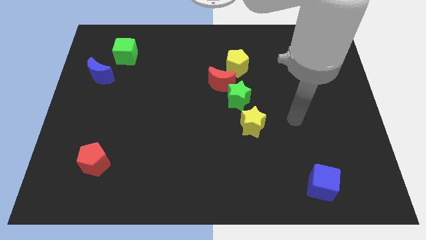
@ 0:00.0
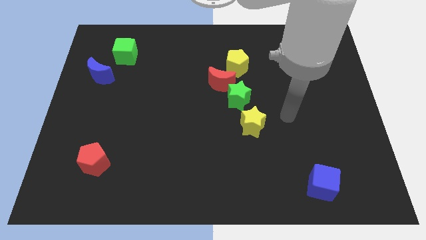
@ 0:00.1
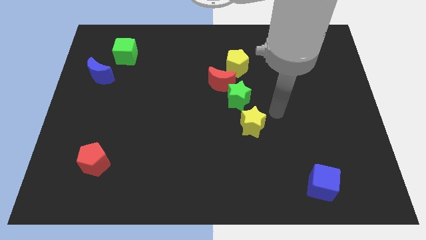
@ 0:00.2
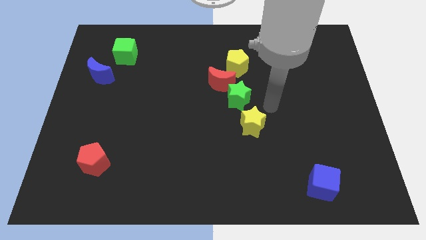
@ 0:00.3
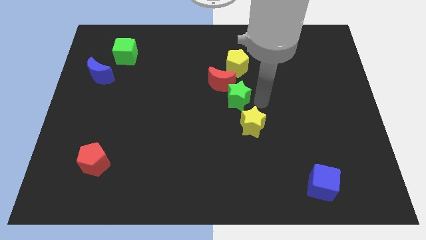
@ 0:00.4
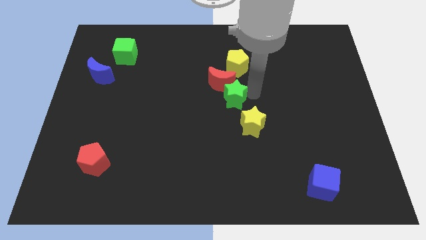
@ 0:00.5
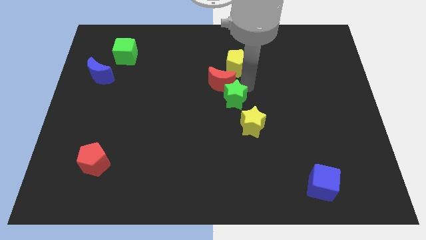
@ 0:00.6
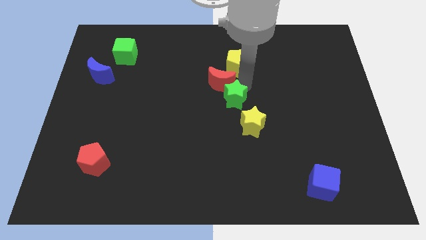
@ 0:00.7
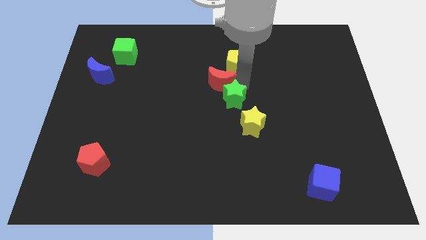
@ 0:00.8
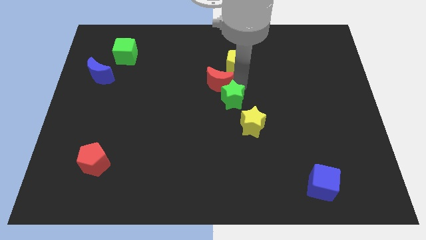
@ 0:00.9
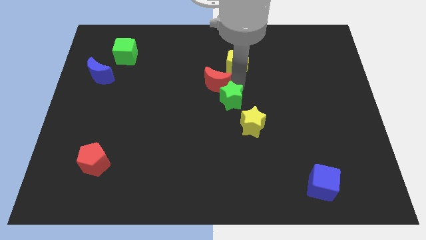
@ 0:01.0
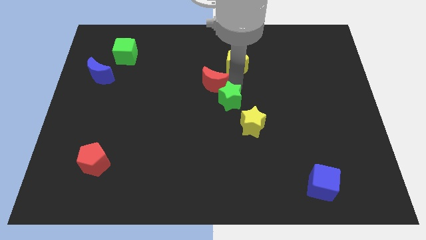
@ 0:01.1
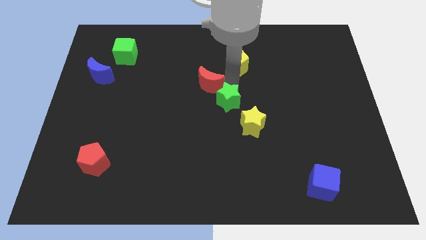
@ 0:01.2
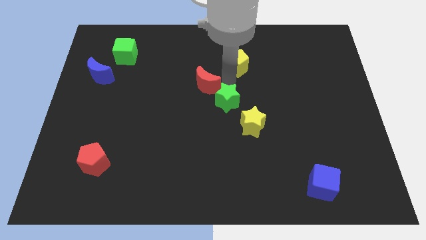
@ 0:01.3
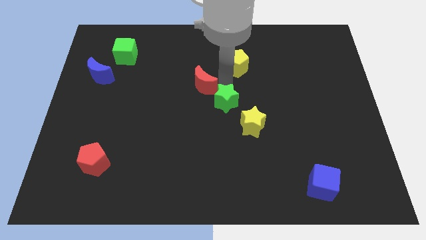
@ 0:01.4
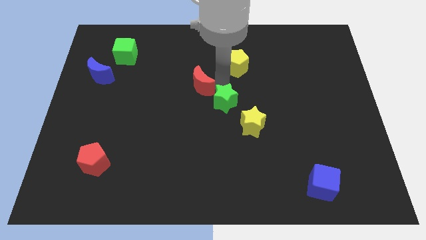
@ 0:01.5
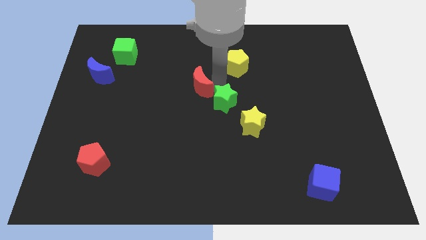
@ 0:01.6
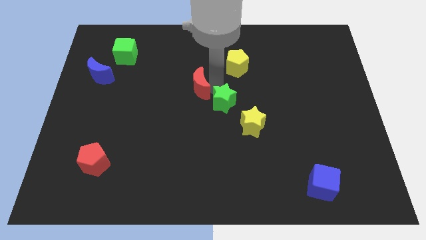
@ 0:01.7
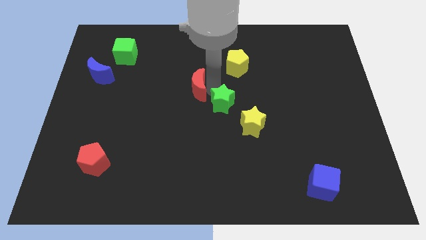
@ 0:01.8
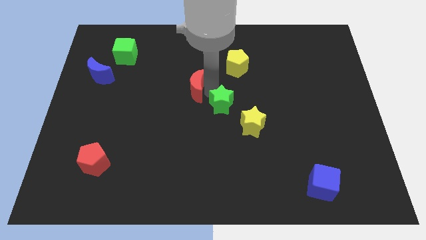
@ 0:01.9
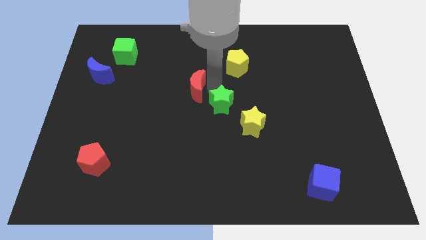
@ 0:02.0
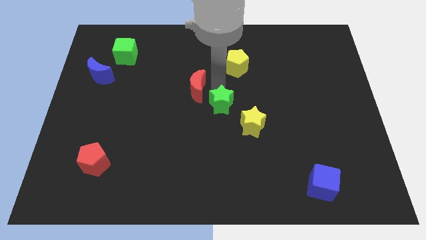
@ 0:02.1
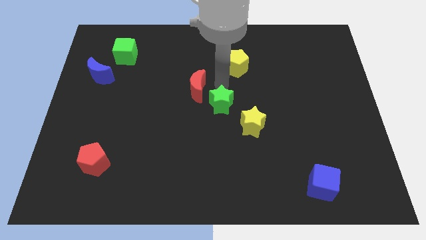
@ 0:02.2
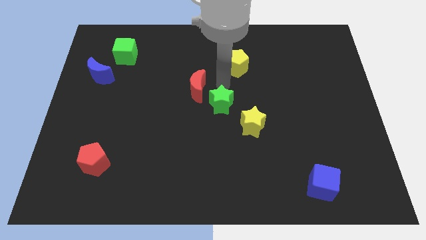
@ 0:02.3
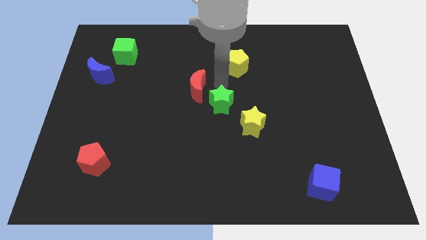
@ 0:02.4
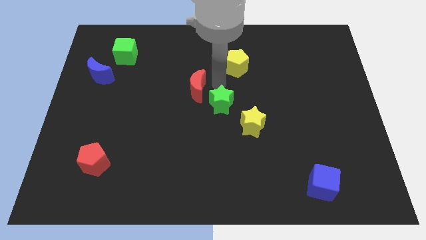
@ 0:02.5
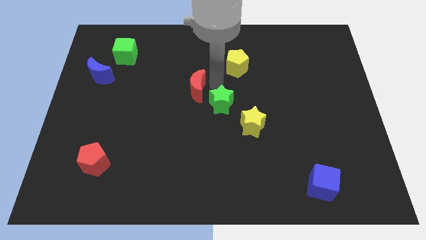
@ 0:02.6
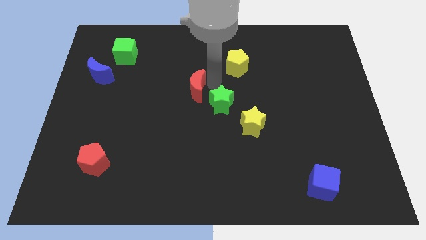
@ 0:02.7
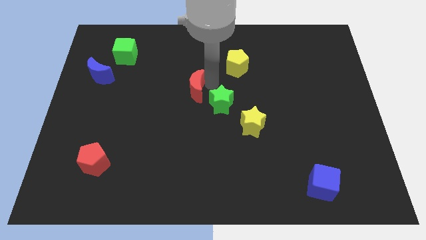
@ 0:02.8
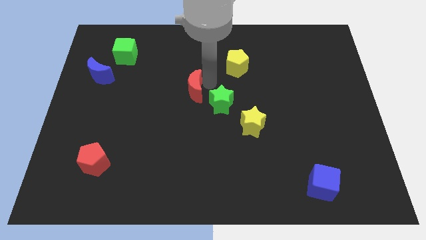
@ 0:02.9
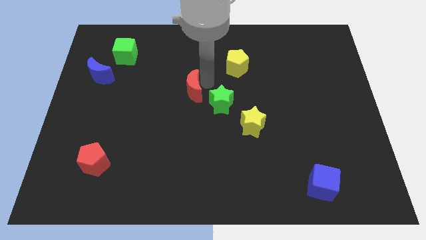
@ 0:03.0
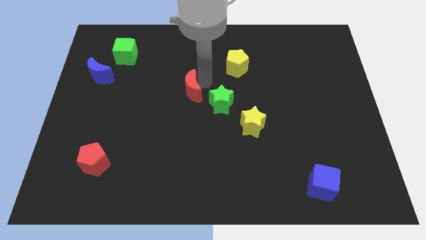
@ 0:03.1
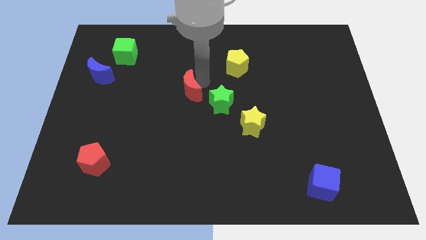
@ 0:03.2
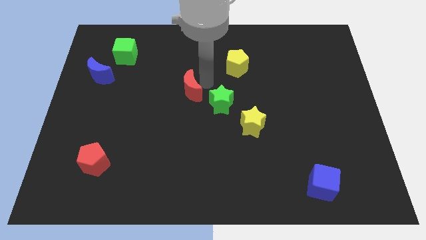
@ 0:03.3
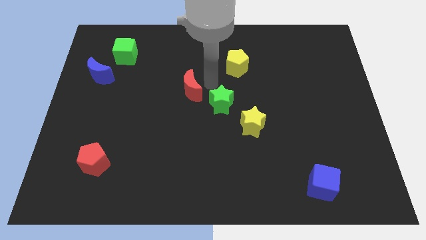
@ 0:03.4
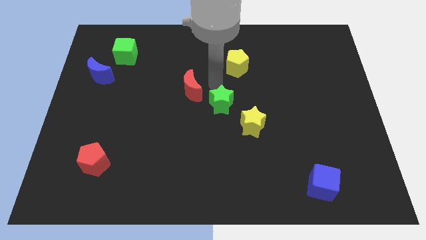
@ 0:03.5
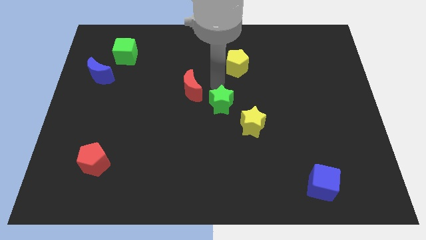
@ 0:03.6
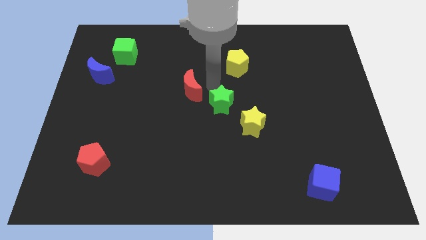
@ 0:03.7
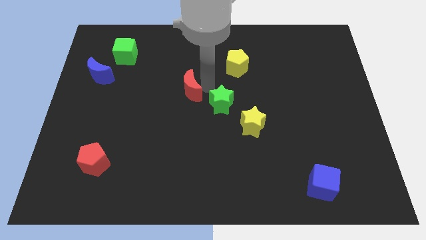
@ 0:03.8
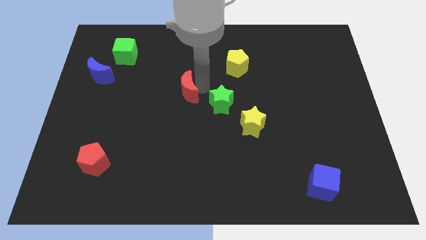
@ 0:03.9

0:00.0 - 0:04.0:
move the red moon away from the green star and yellow pentagon

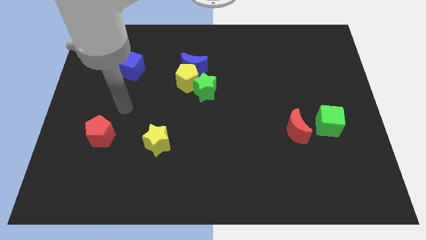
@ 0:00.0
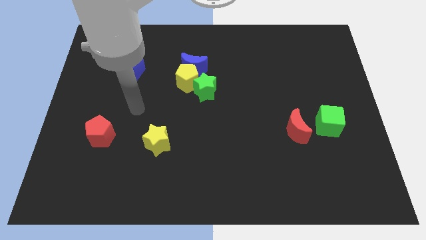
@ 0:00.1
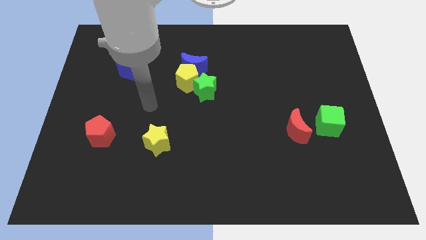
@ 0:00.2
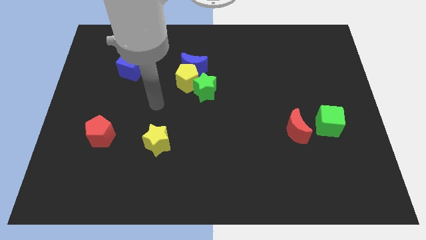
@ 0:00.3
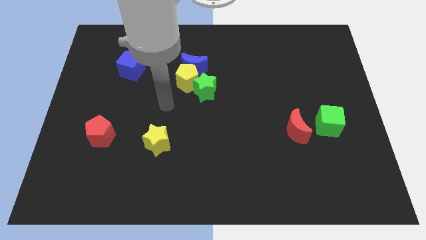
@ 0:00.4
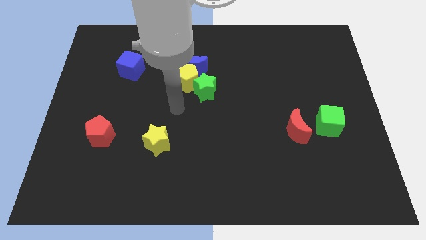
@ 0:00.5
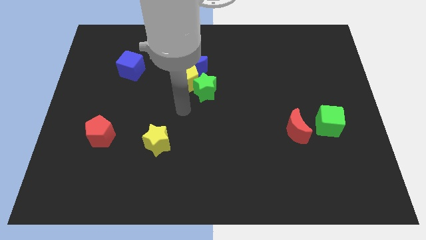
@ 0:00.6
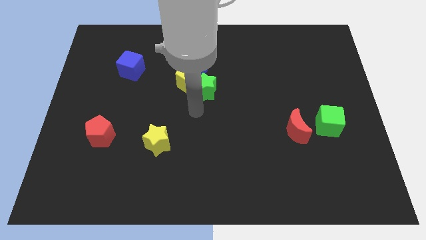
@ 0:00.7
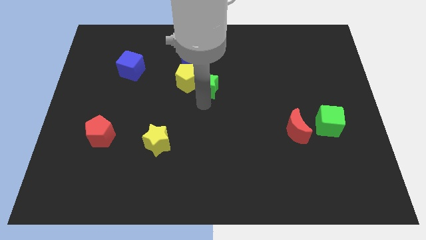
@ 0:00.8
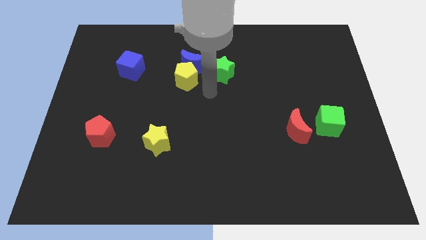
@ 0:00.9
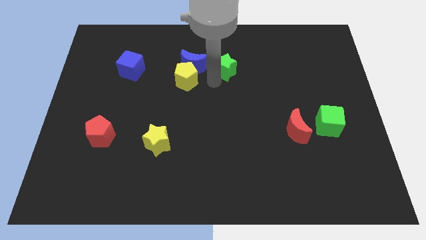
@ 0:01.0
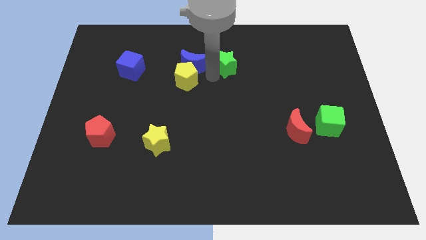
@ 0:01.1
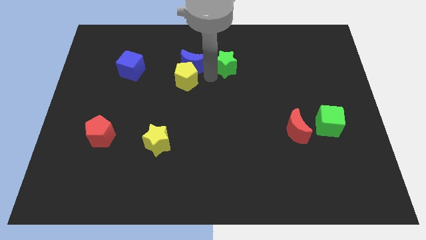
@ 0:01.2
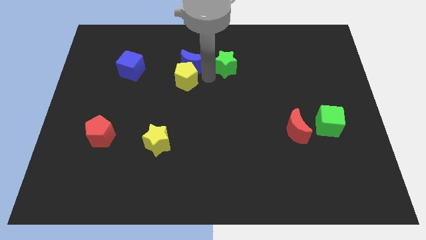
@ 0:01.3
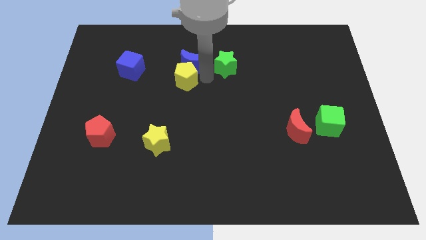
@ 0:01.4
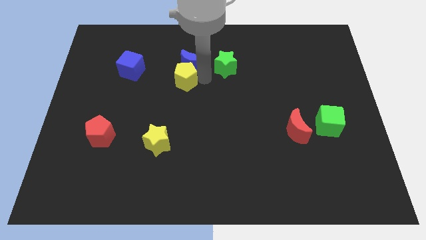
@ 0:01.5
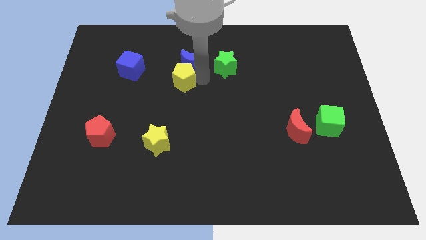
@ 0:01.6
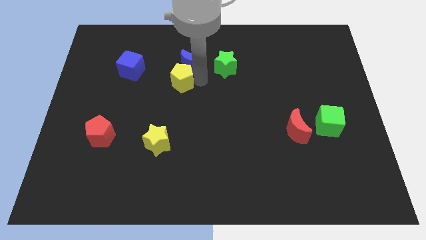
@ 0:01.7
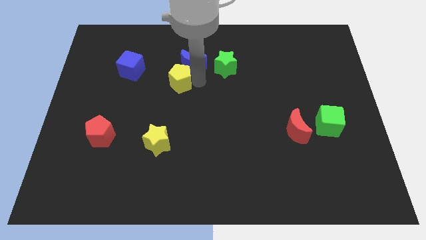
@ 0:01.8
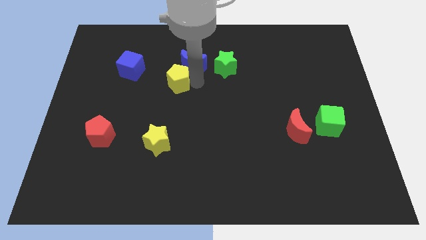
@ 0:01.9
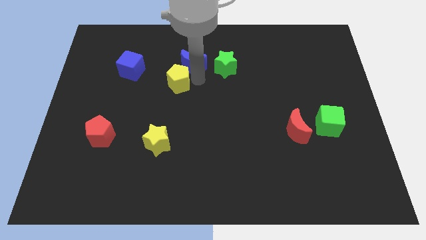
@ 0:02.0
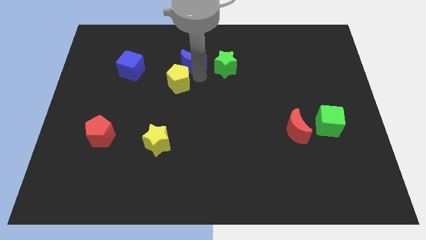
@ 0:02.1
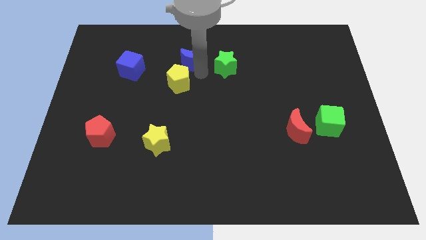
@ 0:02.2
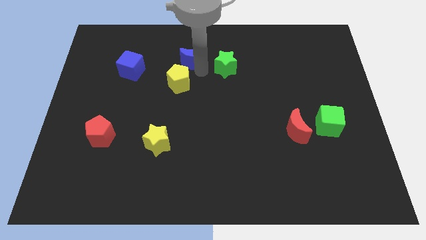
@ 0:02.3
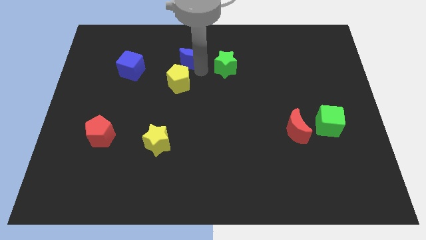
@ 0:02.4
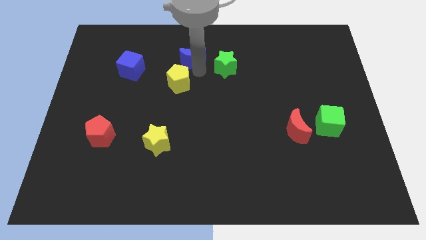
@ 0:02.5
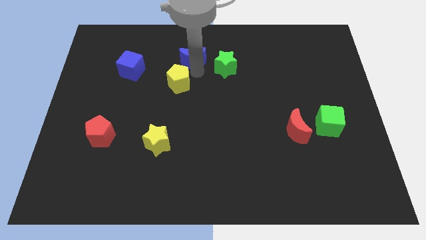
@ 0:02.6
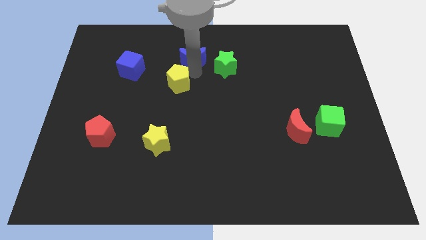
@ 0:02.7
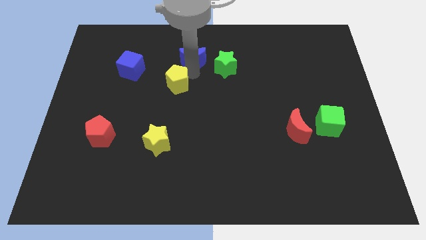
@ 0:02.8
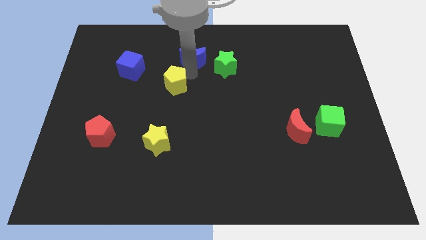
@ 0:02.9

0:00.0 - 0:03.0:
move the yellow pentagon away from the blue moon and green star

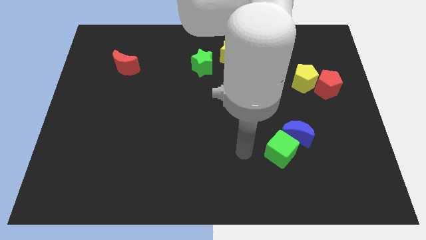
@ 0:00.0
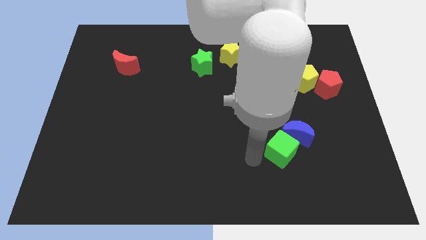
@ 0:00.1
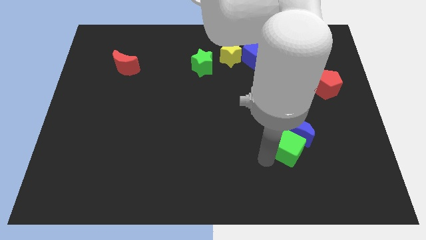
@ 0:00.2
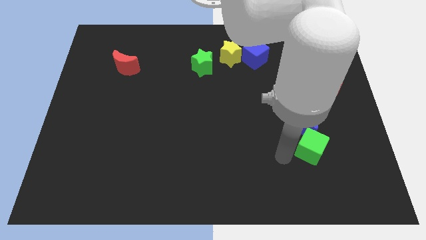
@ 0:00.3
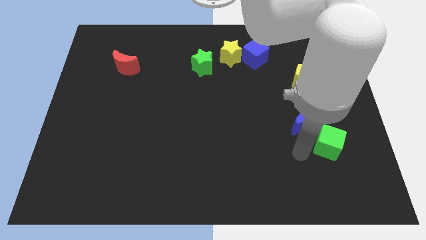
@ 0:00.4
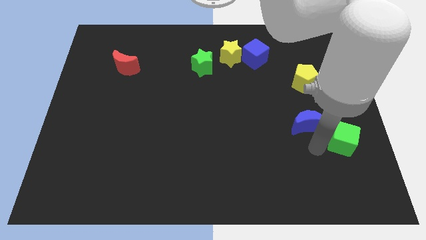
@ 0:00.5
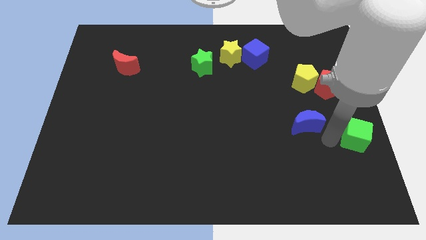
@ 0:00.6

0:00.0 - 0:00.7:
move the blue moon away from the green cube

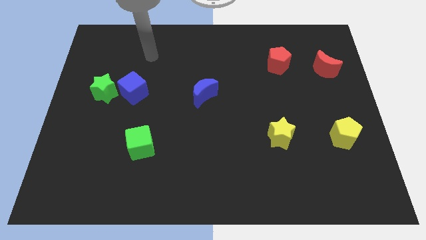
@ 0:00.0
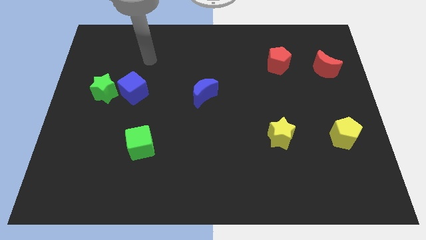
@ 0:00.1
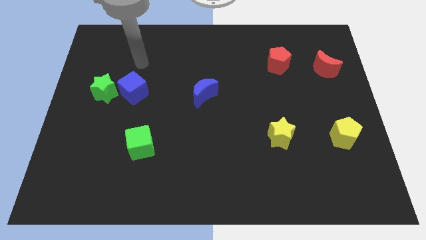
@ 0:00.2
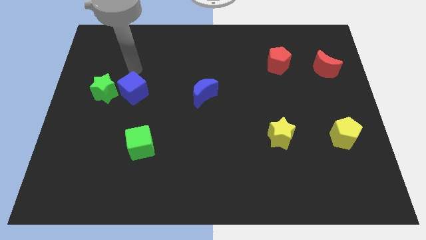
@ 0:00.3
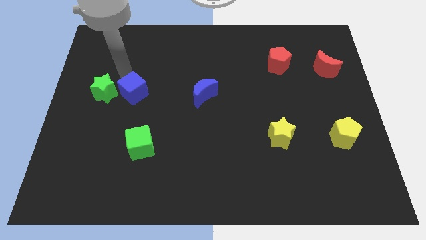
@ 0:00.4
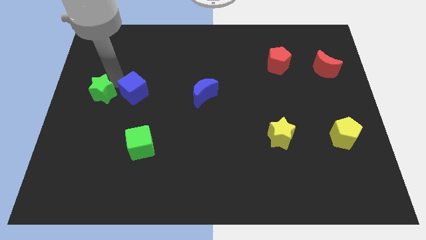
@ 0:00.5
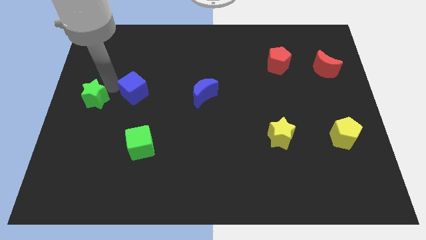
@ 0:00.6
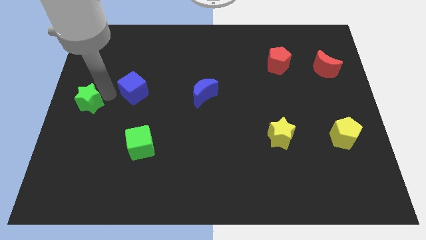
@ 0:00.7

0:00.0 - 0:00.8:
pull the blue cube apart from the green star

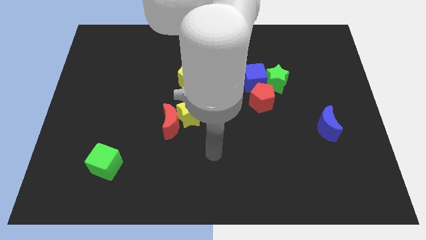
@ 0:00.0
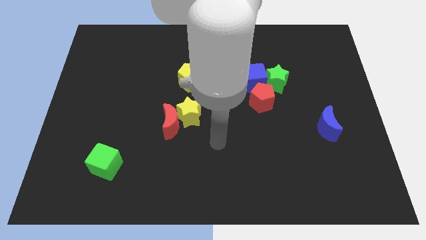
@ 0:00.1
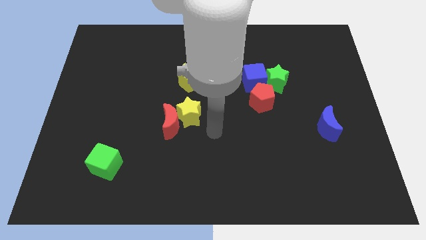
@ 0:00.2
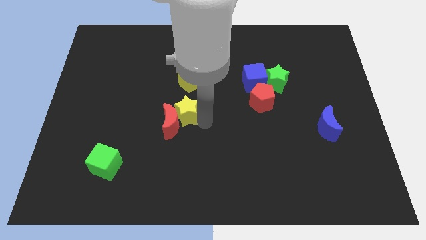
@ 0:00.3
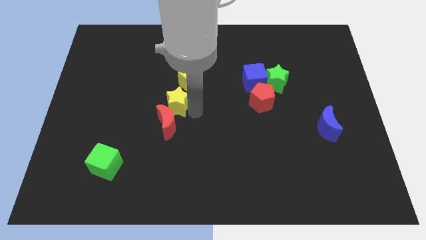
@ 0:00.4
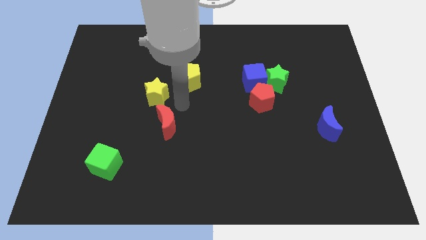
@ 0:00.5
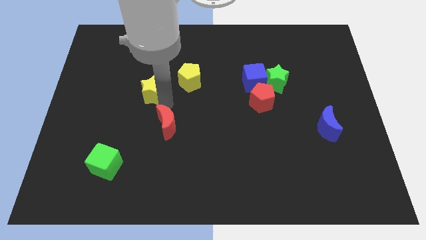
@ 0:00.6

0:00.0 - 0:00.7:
move the red moon away from the yellow star

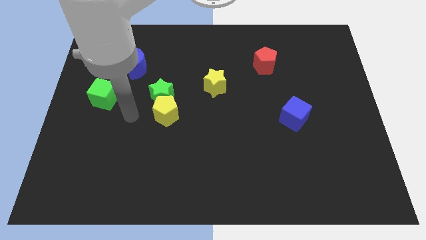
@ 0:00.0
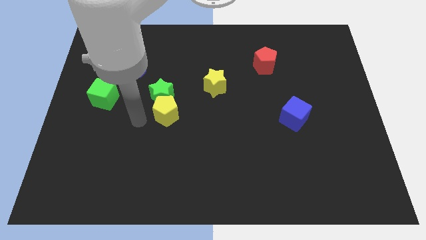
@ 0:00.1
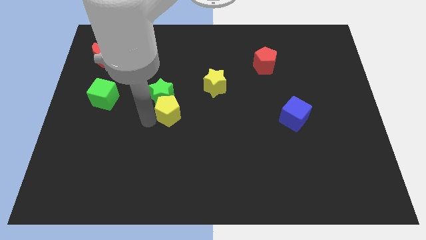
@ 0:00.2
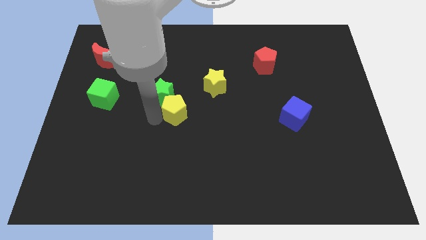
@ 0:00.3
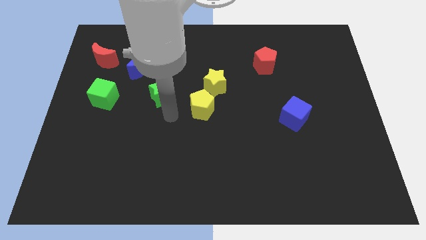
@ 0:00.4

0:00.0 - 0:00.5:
move the green star away from the yellow pentagon
